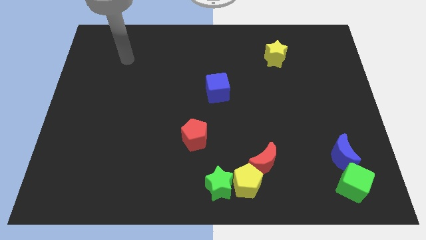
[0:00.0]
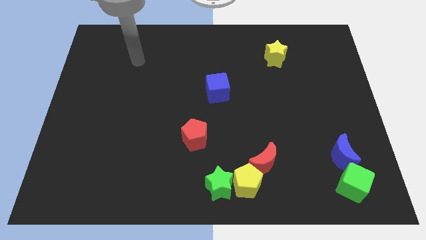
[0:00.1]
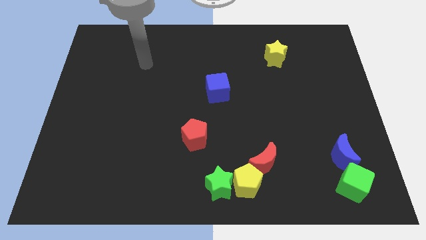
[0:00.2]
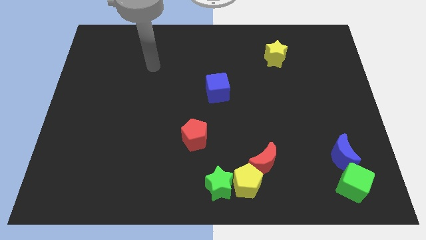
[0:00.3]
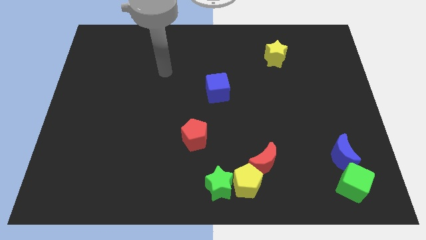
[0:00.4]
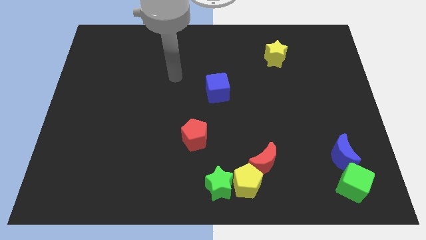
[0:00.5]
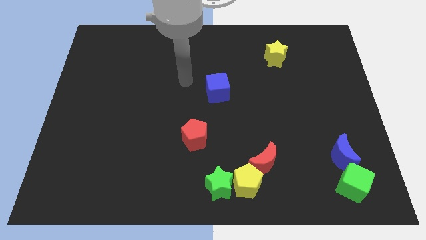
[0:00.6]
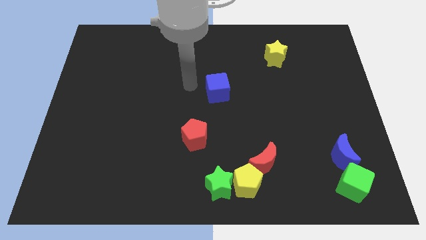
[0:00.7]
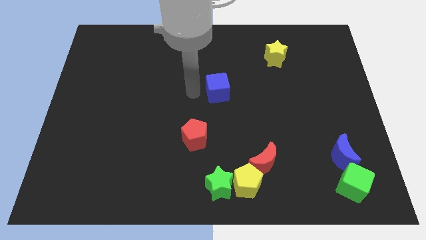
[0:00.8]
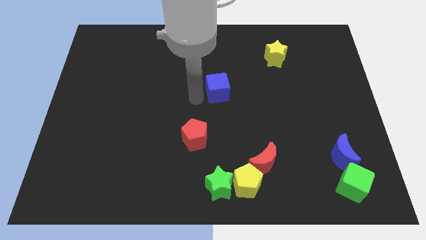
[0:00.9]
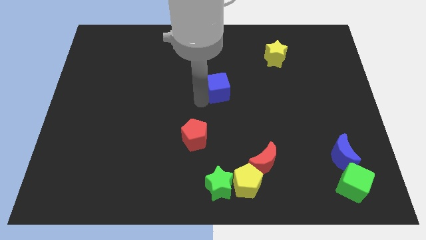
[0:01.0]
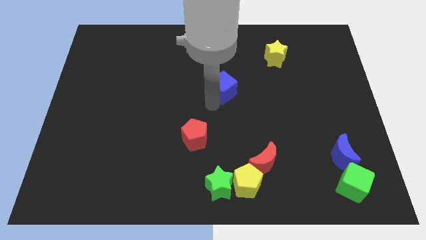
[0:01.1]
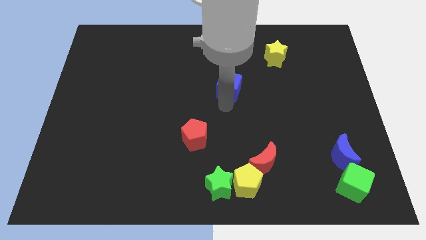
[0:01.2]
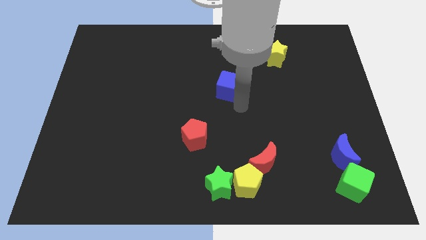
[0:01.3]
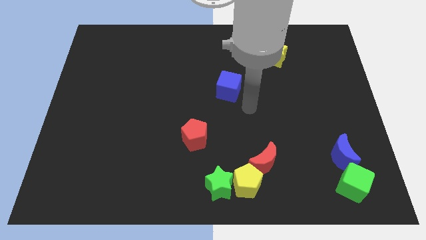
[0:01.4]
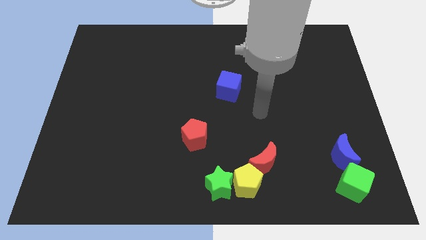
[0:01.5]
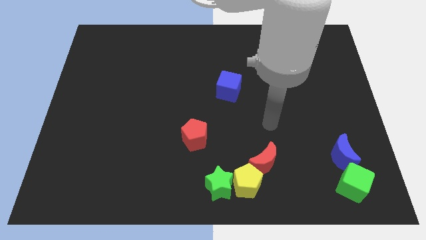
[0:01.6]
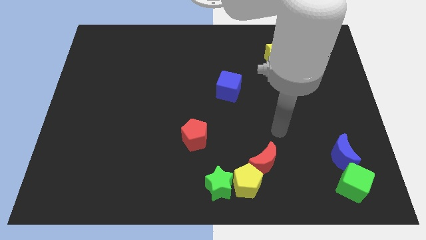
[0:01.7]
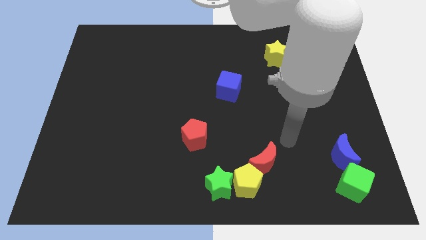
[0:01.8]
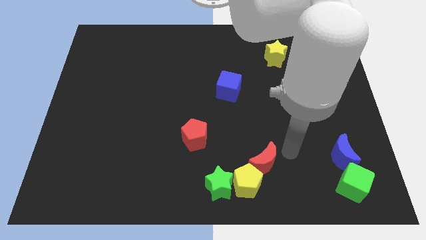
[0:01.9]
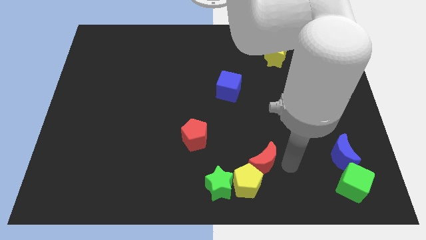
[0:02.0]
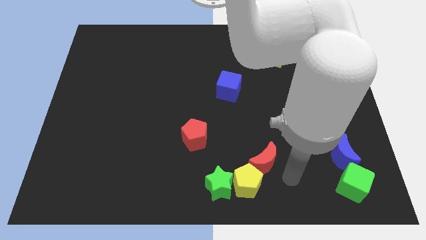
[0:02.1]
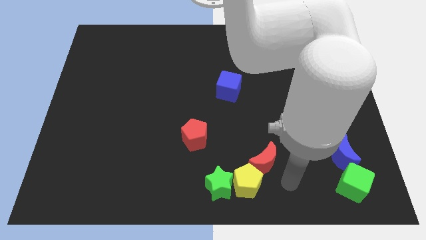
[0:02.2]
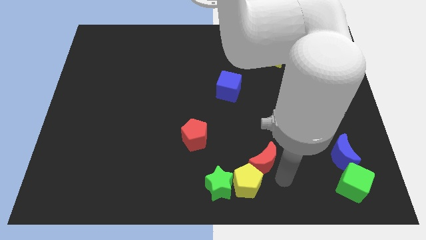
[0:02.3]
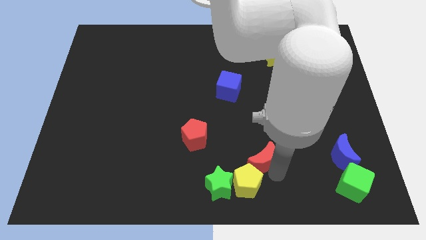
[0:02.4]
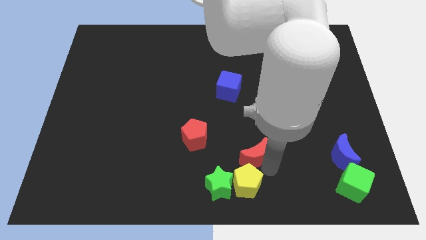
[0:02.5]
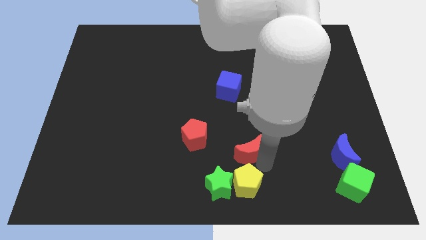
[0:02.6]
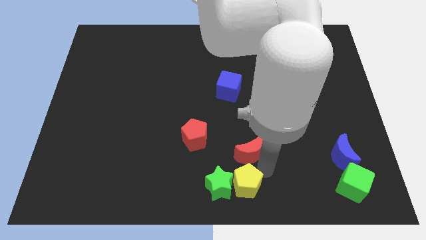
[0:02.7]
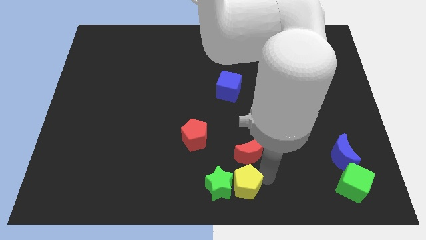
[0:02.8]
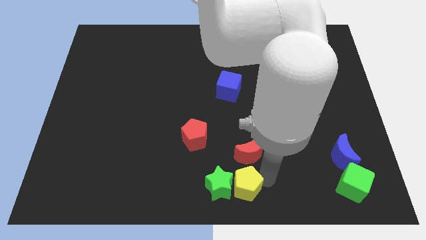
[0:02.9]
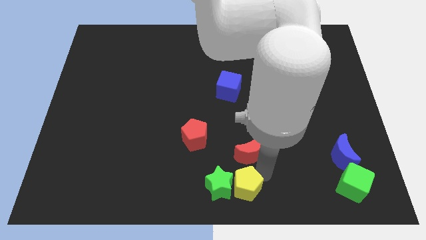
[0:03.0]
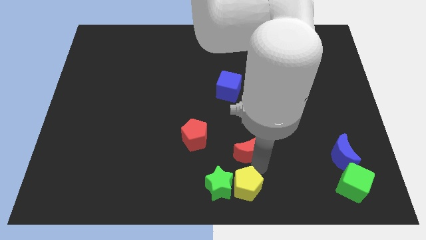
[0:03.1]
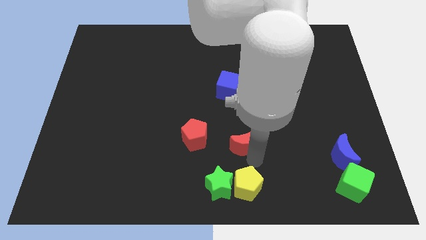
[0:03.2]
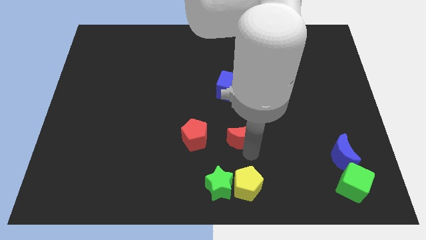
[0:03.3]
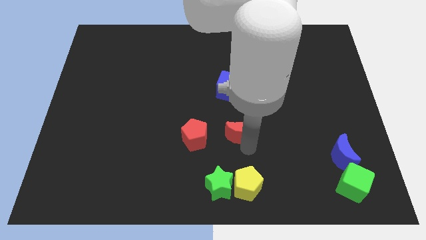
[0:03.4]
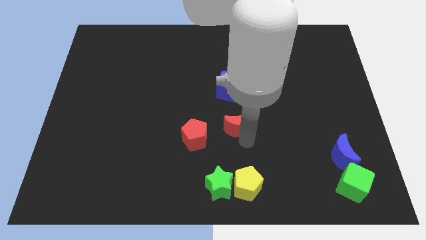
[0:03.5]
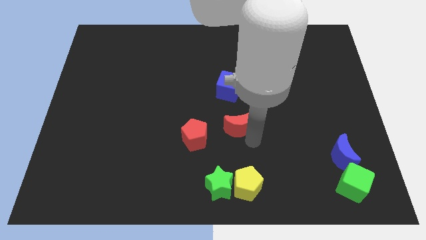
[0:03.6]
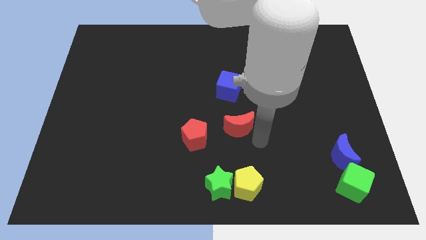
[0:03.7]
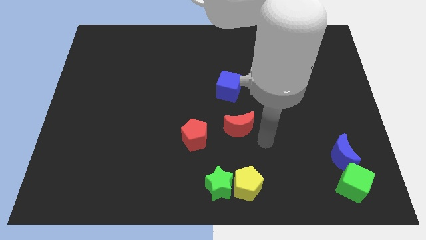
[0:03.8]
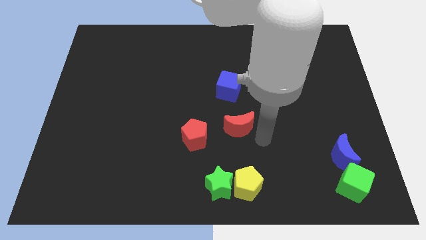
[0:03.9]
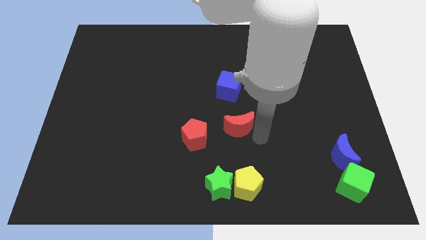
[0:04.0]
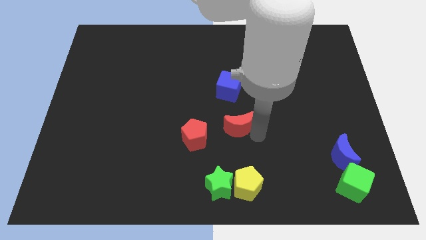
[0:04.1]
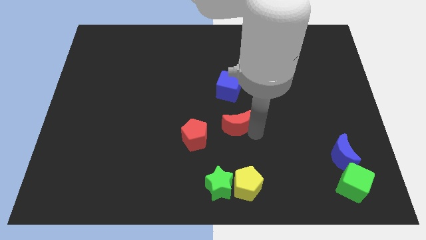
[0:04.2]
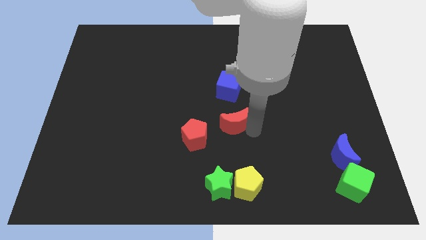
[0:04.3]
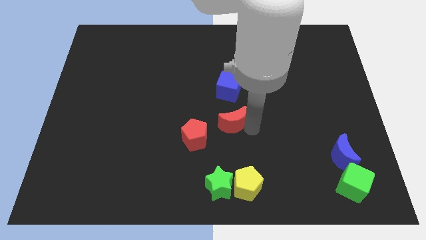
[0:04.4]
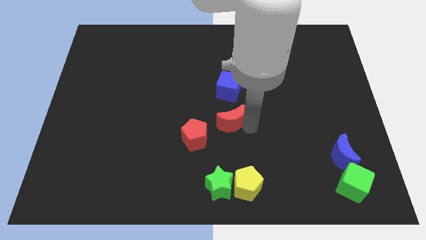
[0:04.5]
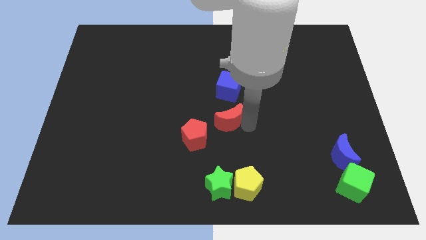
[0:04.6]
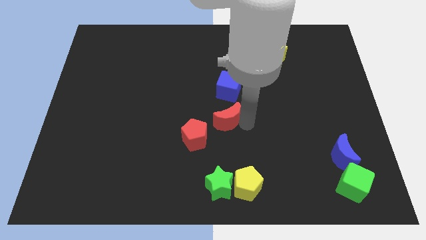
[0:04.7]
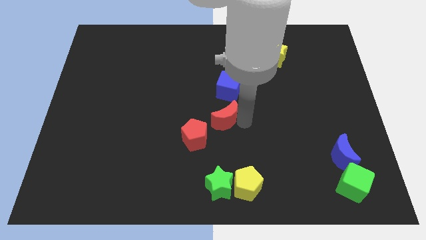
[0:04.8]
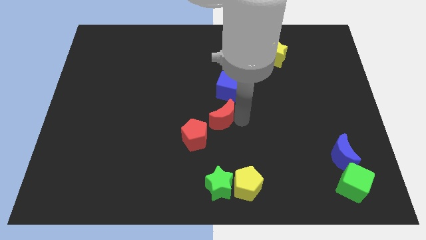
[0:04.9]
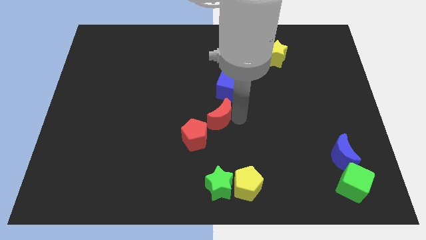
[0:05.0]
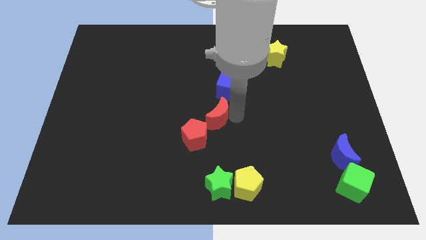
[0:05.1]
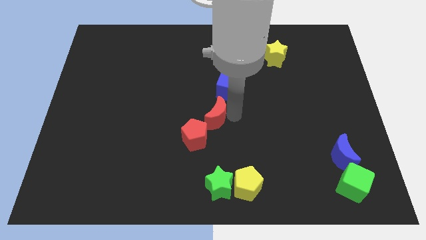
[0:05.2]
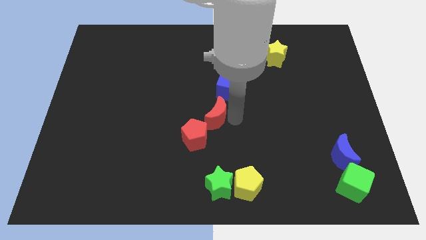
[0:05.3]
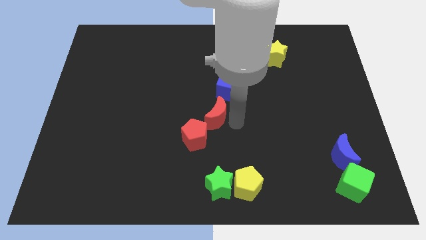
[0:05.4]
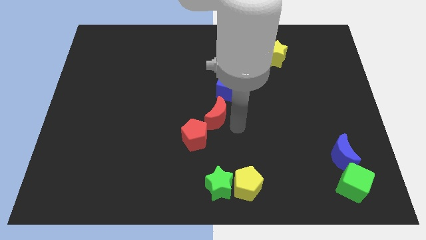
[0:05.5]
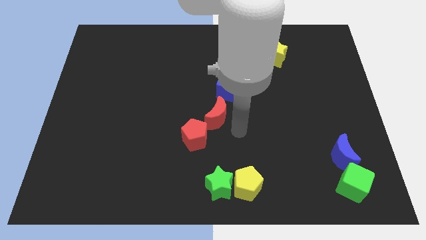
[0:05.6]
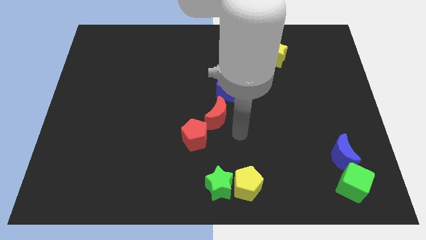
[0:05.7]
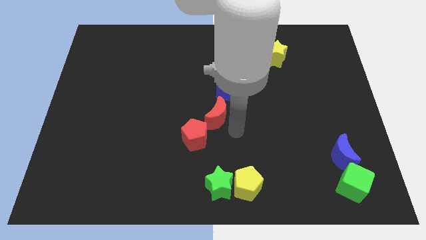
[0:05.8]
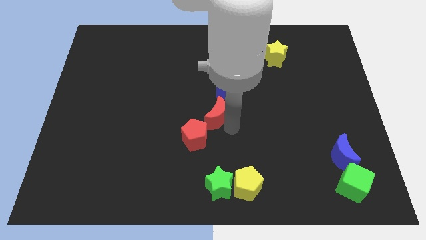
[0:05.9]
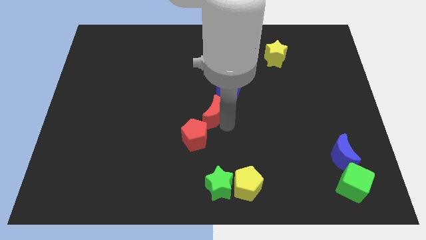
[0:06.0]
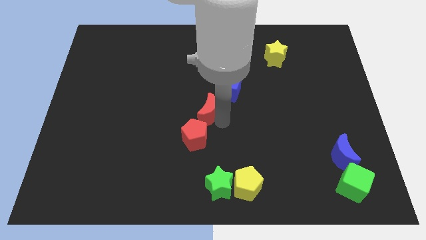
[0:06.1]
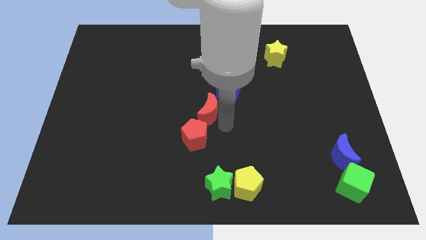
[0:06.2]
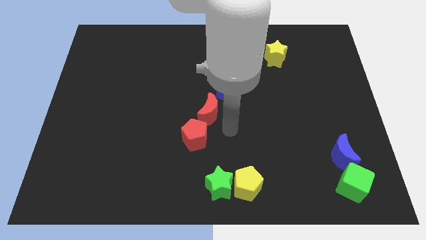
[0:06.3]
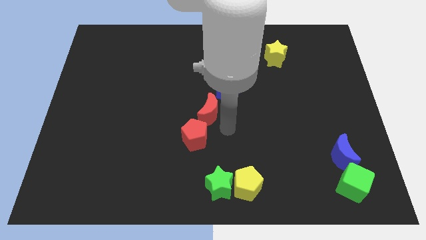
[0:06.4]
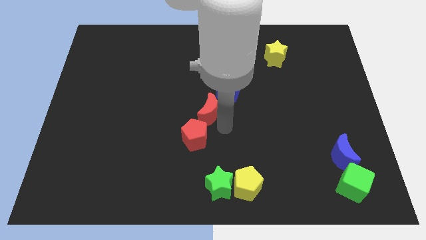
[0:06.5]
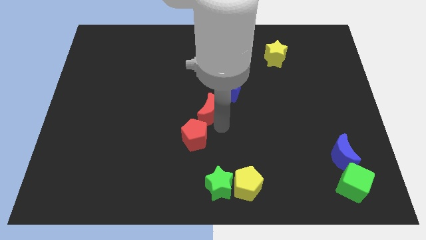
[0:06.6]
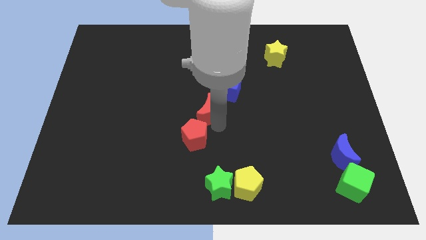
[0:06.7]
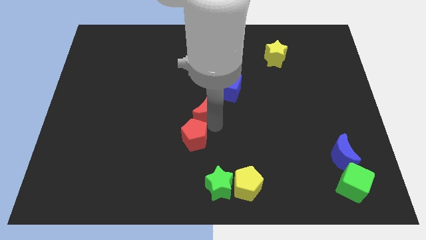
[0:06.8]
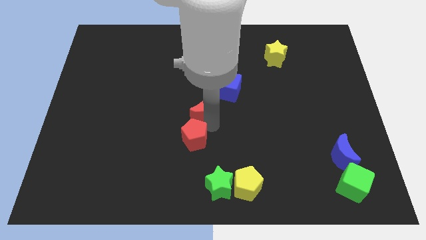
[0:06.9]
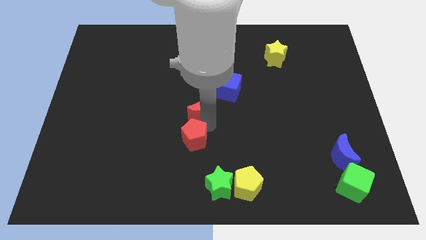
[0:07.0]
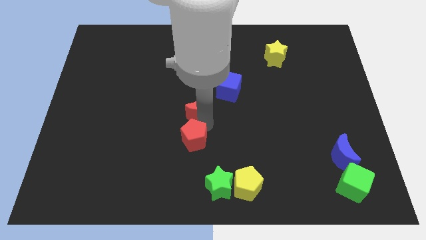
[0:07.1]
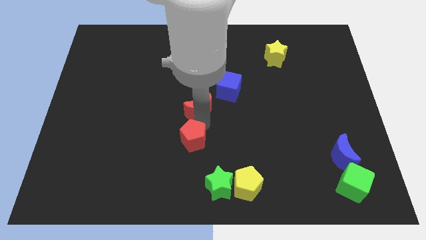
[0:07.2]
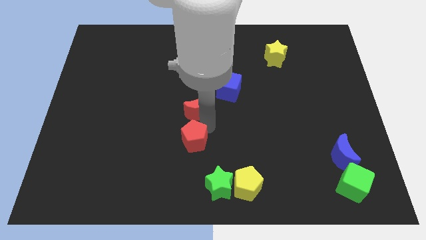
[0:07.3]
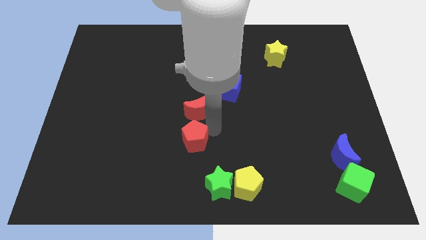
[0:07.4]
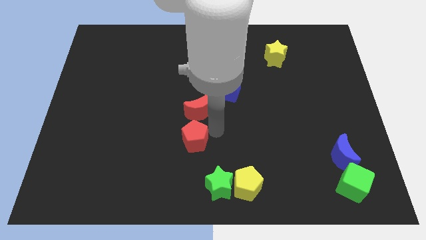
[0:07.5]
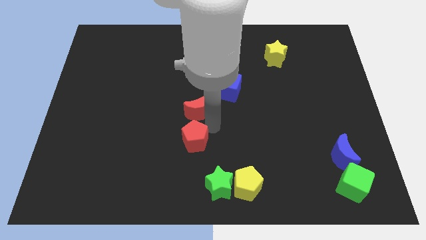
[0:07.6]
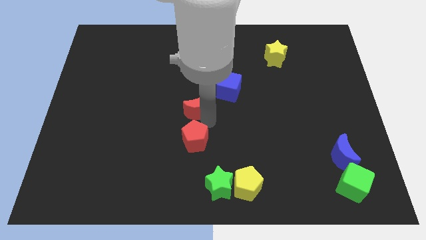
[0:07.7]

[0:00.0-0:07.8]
move the red moon up and to the left

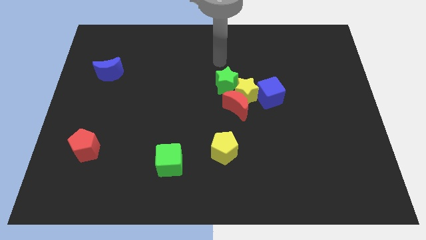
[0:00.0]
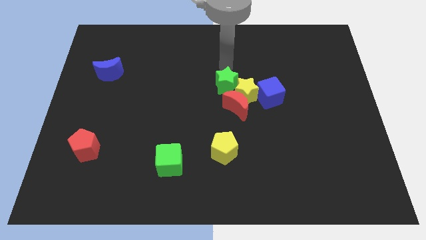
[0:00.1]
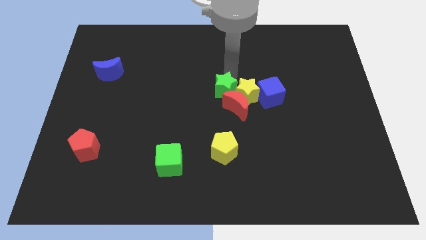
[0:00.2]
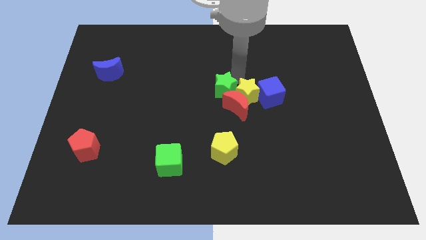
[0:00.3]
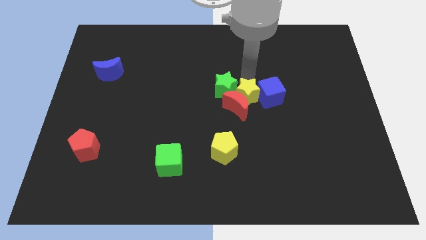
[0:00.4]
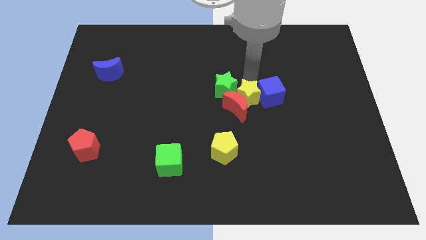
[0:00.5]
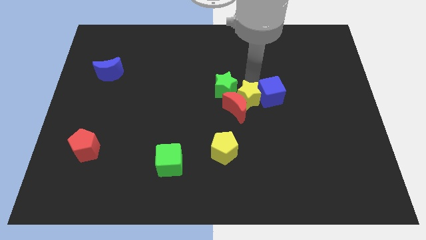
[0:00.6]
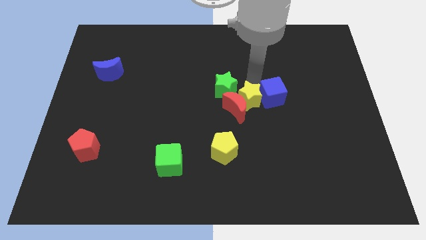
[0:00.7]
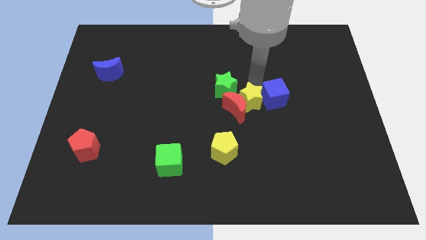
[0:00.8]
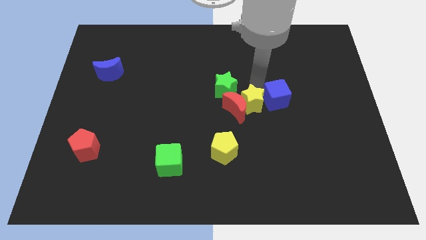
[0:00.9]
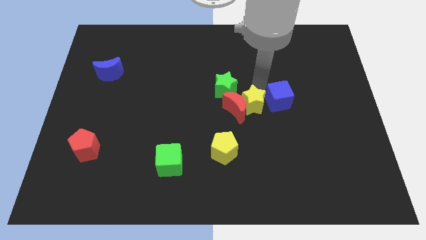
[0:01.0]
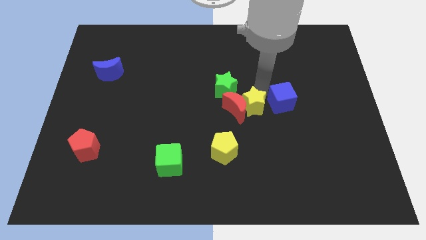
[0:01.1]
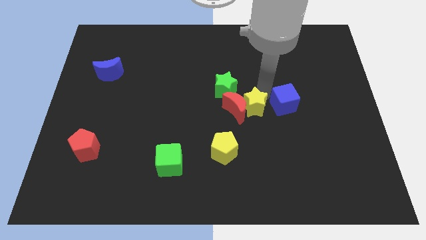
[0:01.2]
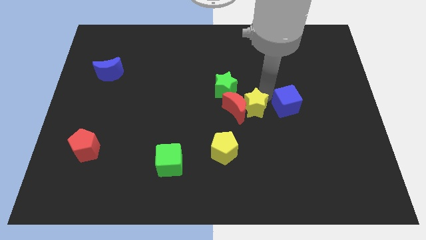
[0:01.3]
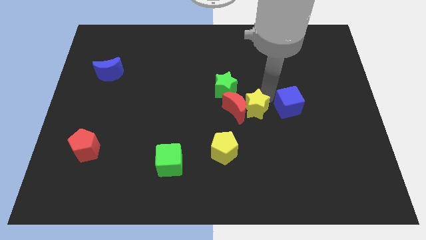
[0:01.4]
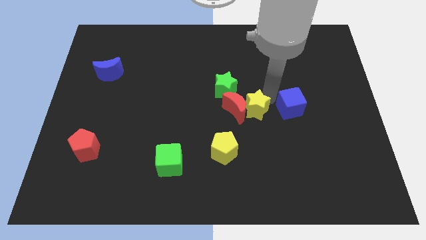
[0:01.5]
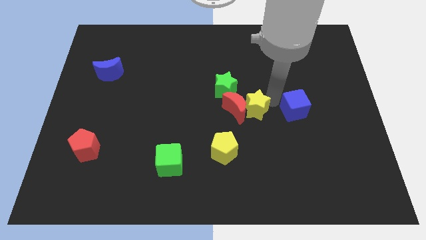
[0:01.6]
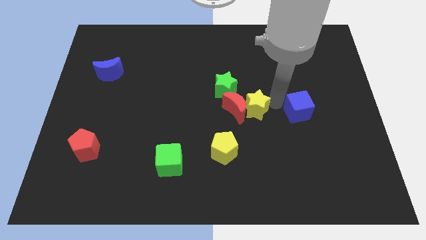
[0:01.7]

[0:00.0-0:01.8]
slightly push the blue cube diagonally downwards and to the right
